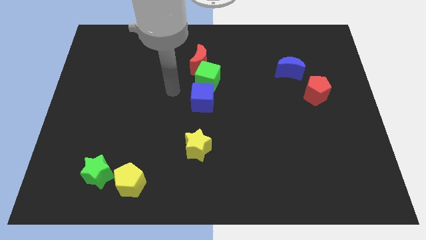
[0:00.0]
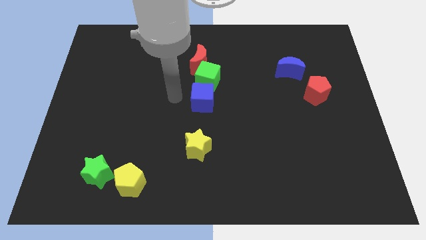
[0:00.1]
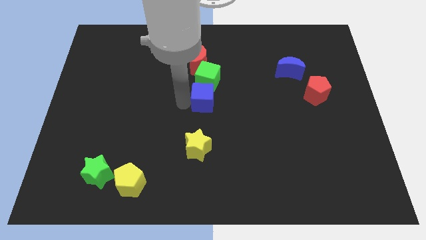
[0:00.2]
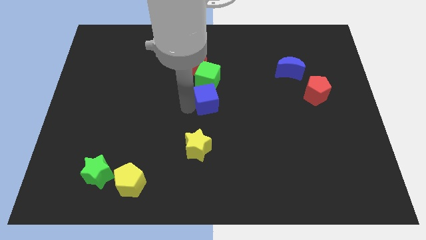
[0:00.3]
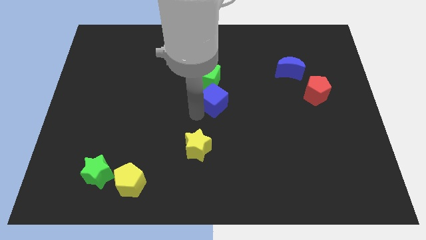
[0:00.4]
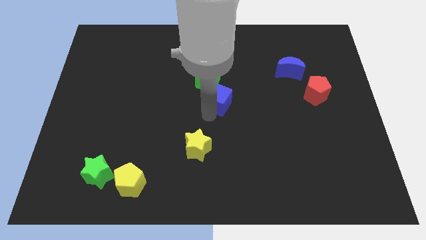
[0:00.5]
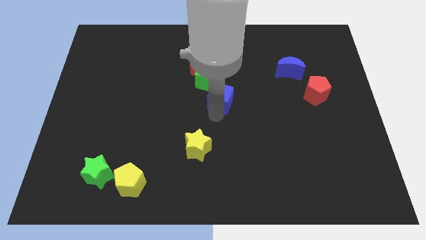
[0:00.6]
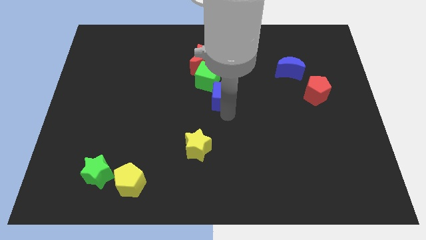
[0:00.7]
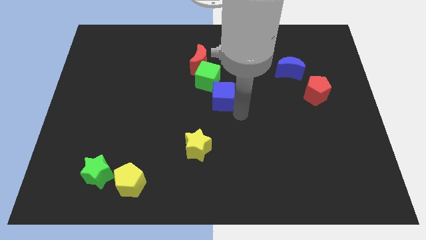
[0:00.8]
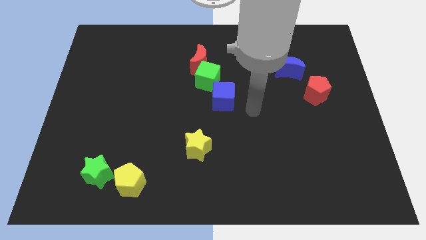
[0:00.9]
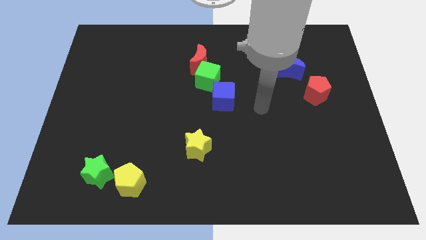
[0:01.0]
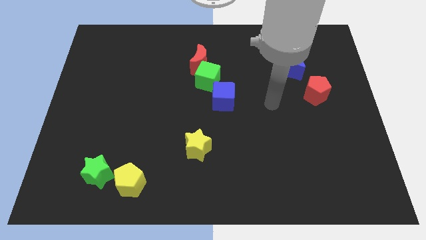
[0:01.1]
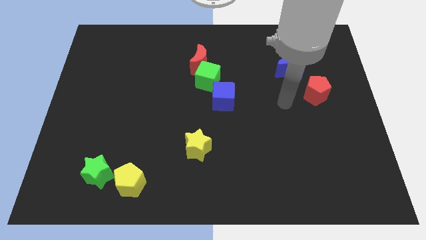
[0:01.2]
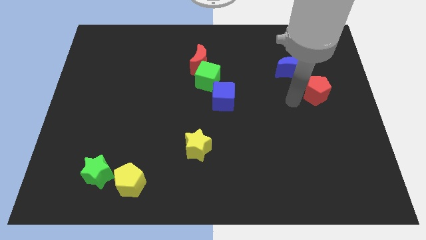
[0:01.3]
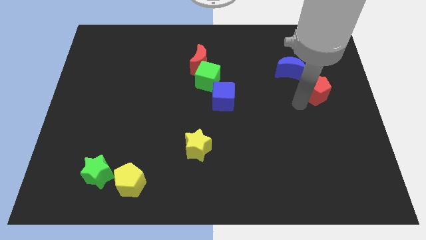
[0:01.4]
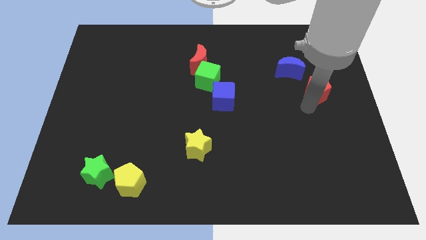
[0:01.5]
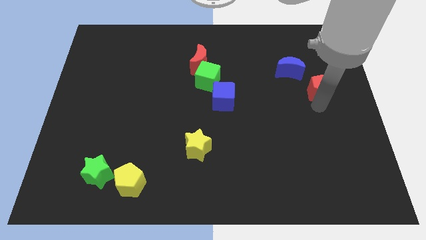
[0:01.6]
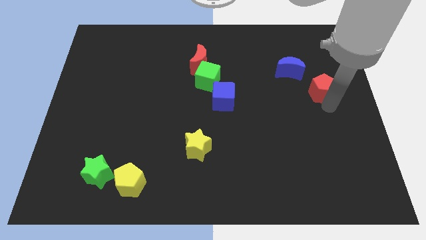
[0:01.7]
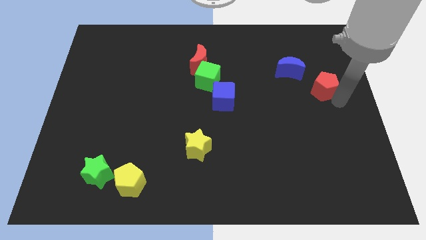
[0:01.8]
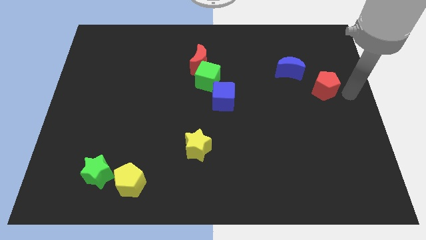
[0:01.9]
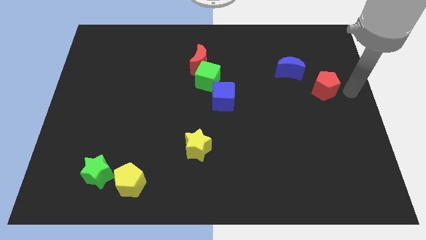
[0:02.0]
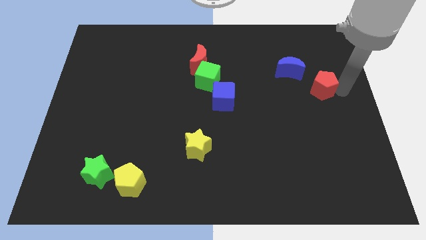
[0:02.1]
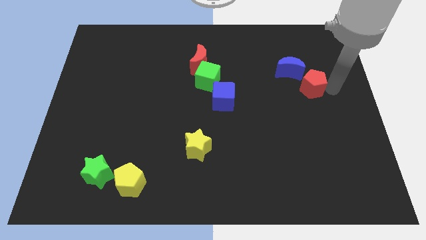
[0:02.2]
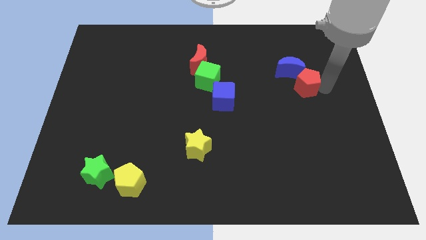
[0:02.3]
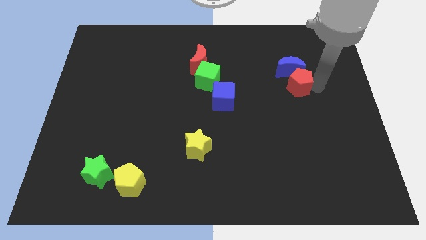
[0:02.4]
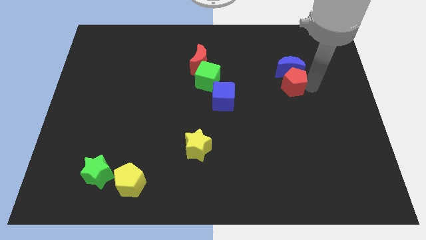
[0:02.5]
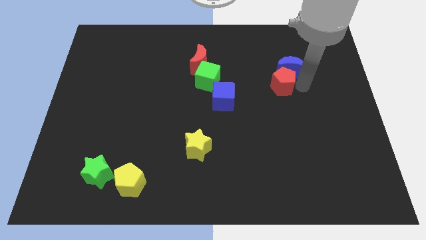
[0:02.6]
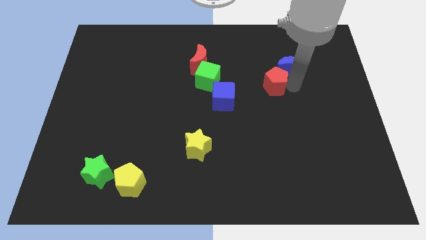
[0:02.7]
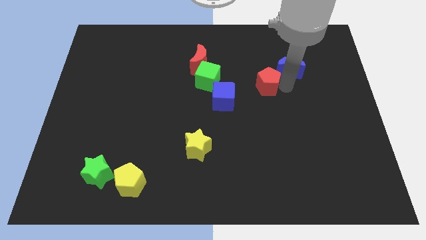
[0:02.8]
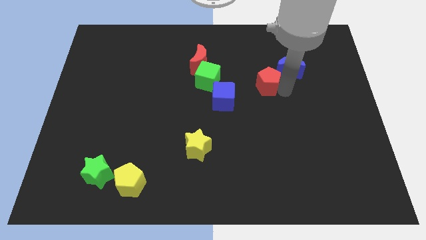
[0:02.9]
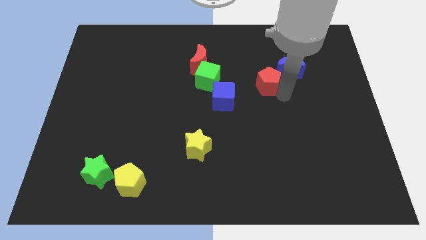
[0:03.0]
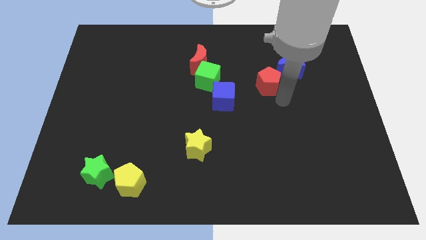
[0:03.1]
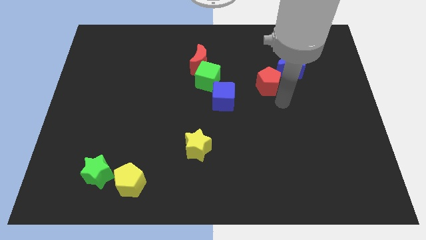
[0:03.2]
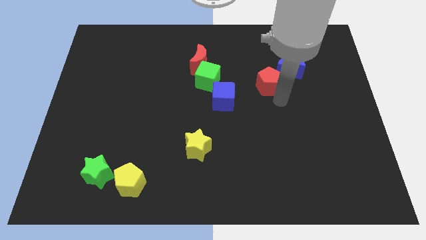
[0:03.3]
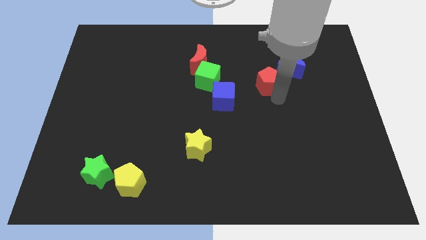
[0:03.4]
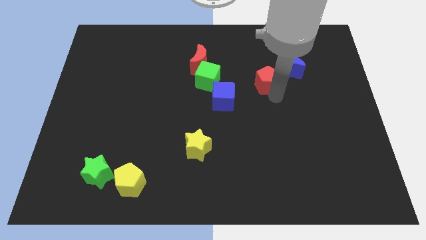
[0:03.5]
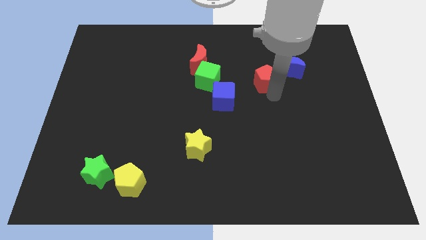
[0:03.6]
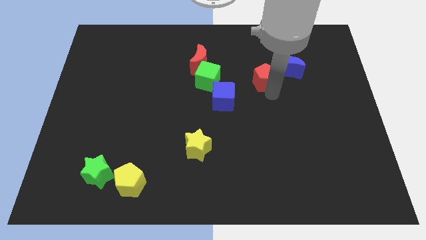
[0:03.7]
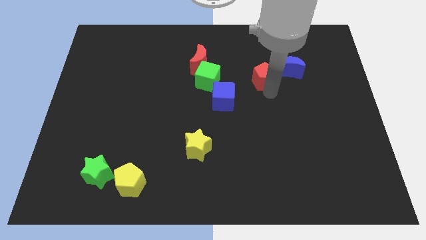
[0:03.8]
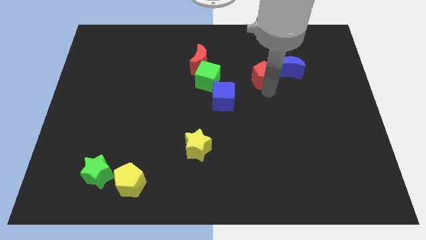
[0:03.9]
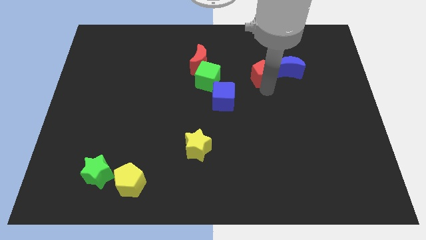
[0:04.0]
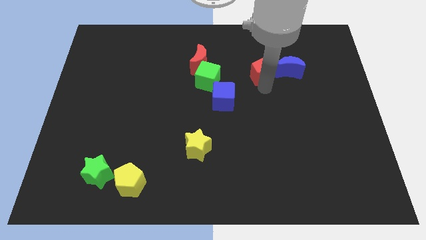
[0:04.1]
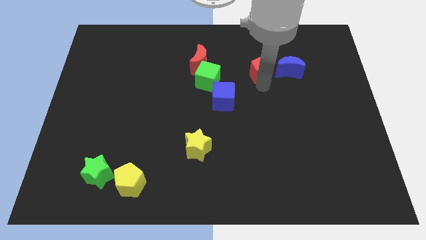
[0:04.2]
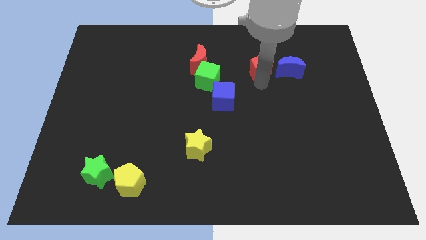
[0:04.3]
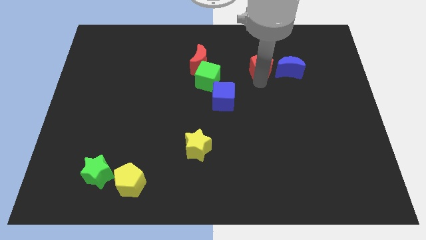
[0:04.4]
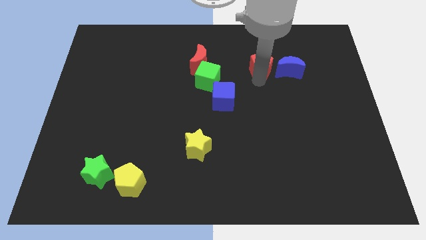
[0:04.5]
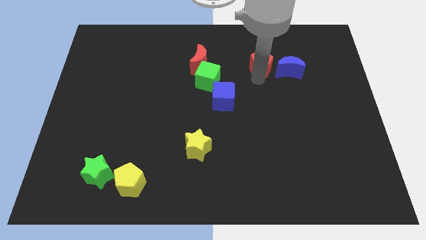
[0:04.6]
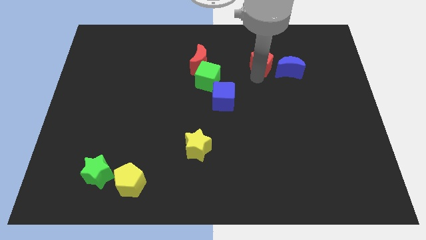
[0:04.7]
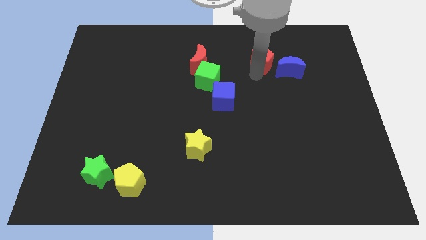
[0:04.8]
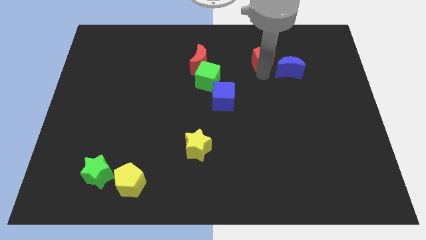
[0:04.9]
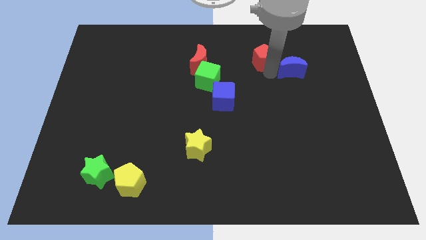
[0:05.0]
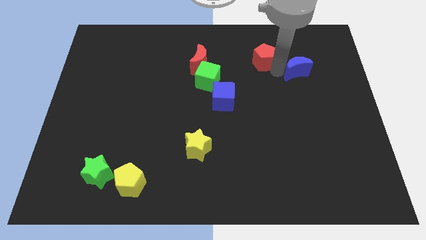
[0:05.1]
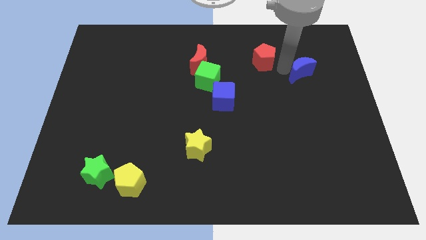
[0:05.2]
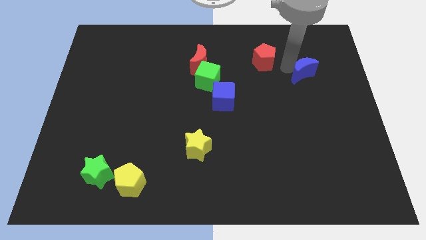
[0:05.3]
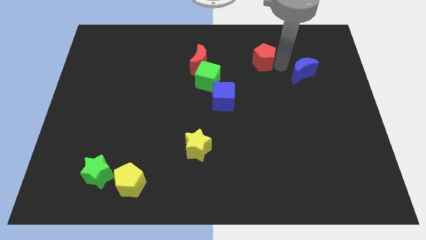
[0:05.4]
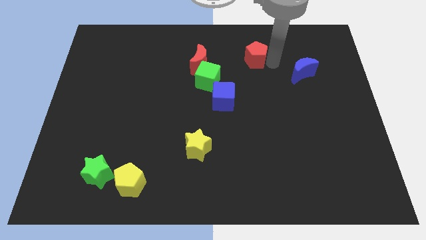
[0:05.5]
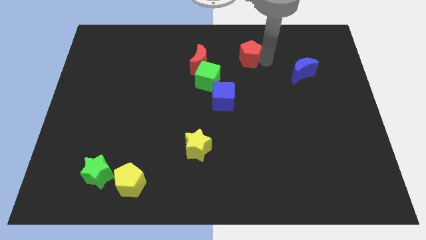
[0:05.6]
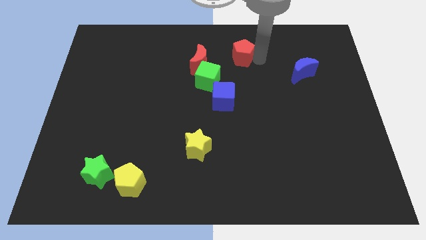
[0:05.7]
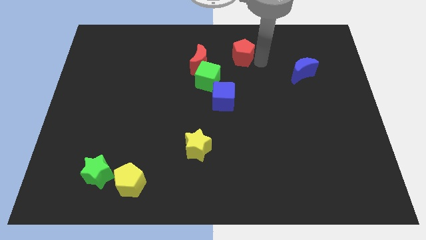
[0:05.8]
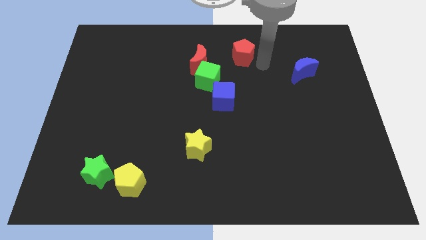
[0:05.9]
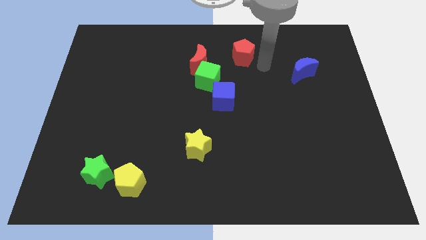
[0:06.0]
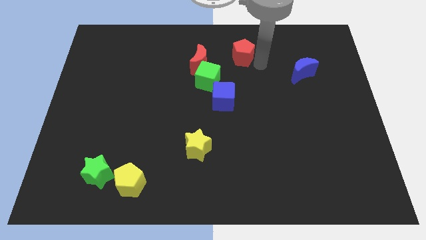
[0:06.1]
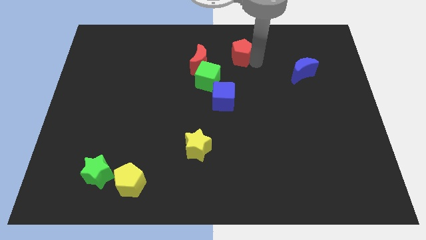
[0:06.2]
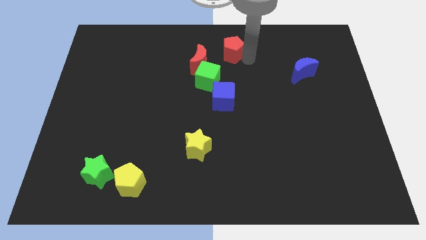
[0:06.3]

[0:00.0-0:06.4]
push the red pentagon to the top side

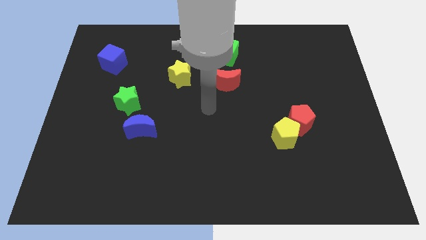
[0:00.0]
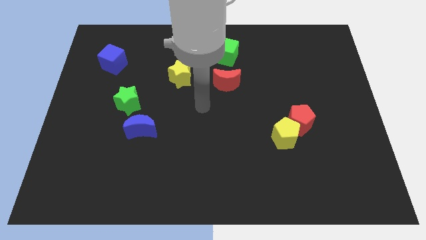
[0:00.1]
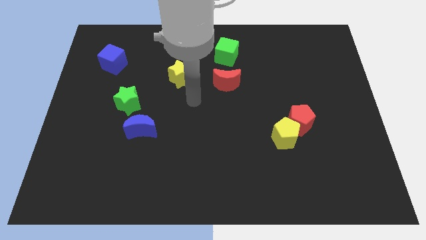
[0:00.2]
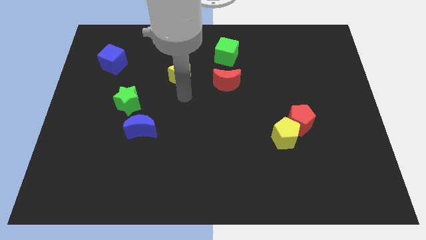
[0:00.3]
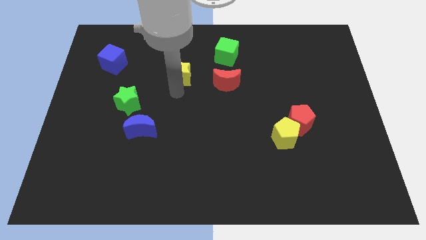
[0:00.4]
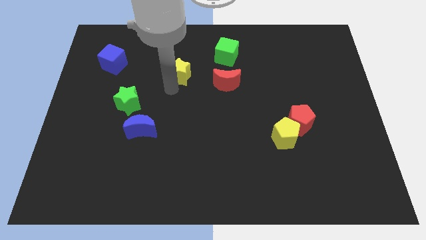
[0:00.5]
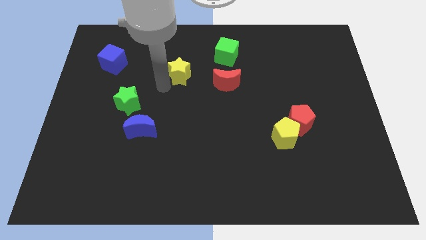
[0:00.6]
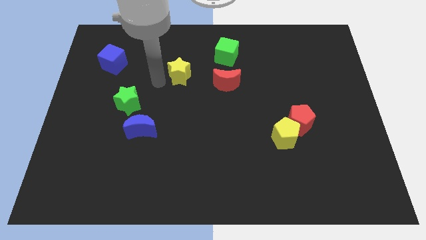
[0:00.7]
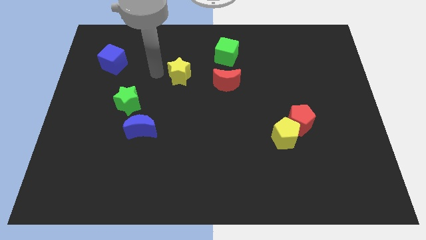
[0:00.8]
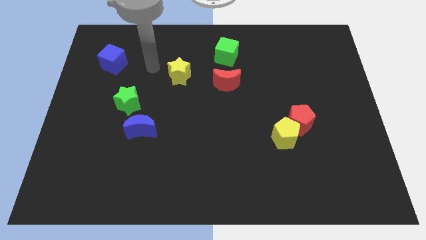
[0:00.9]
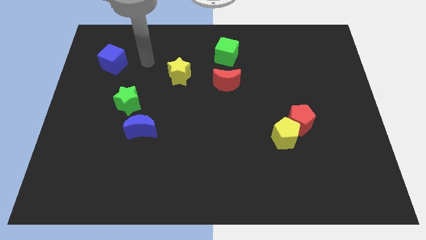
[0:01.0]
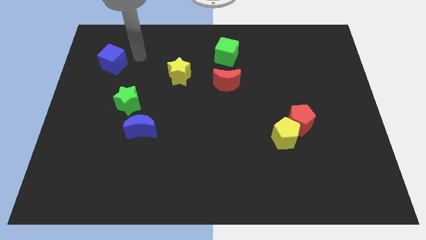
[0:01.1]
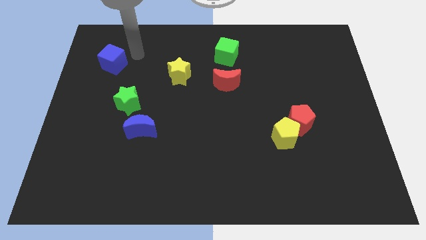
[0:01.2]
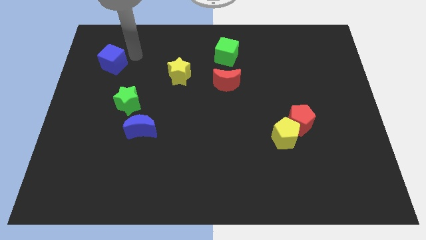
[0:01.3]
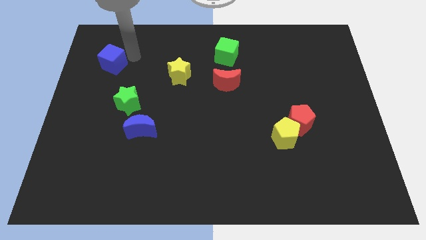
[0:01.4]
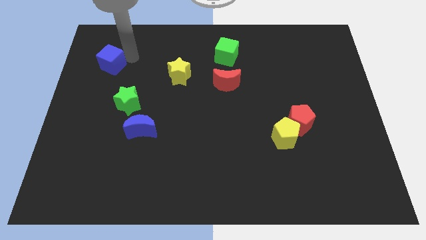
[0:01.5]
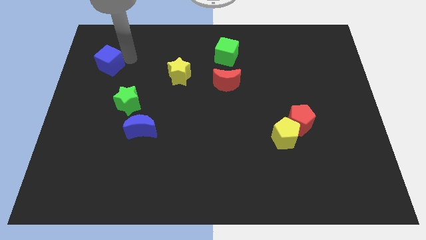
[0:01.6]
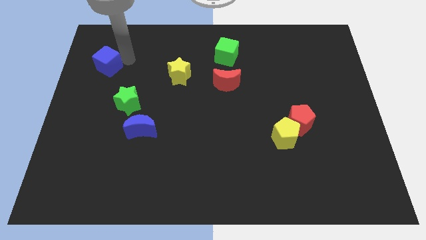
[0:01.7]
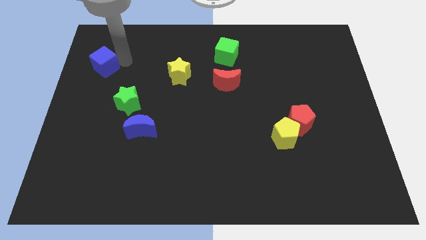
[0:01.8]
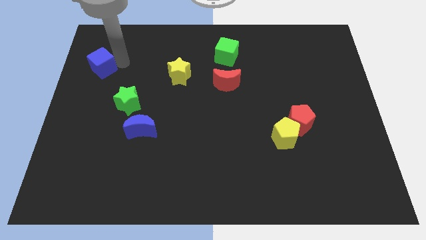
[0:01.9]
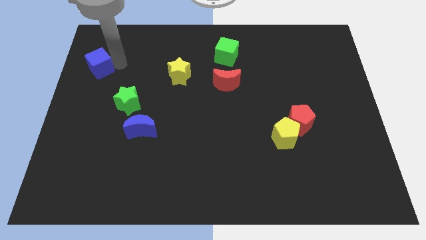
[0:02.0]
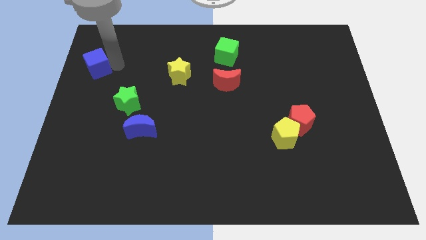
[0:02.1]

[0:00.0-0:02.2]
move the blue cube to the left side
